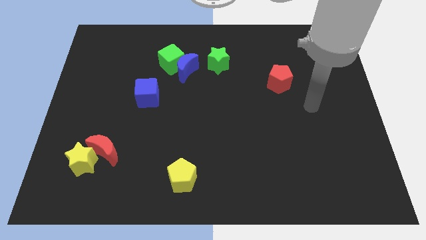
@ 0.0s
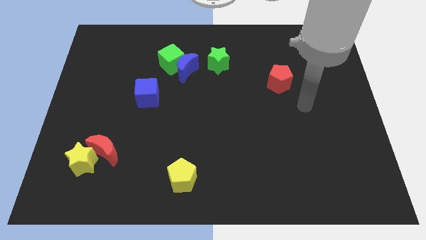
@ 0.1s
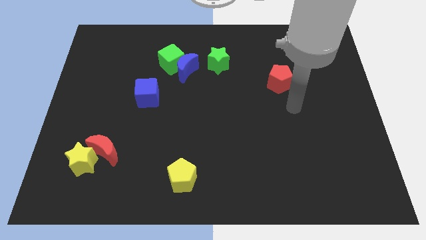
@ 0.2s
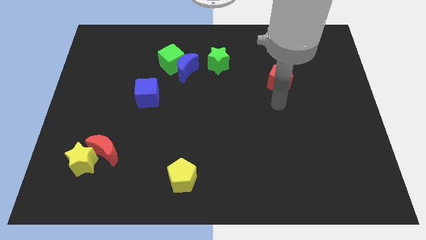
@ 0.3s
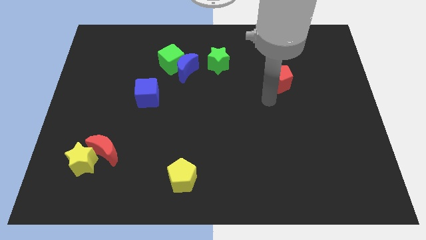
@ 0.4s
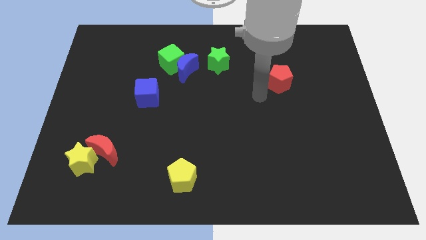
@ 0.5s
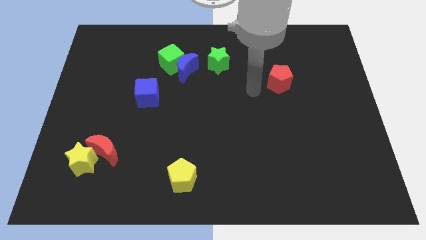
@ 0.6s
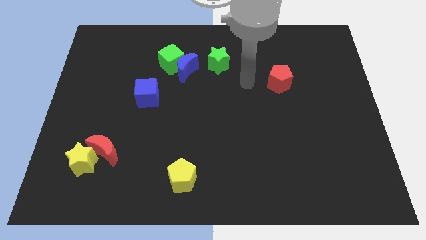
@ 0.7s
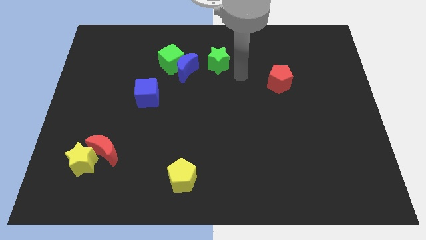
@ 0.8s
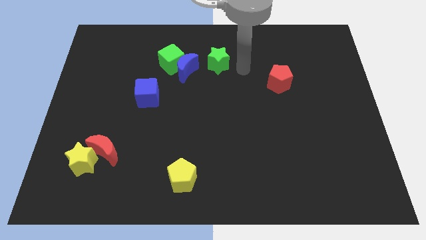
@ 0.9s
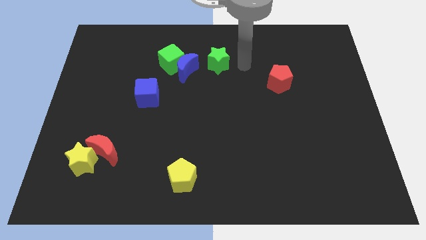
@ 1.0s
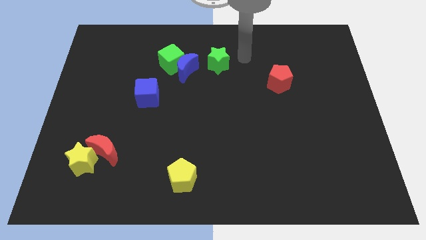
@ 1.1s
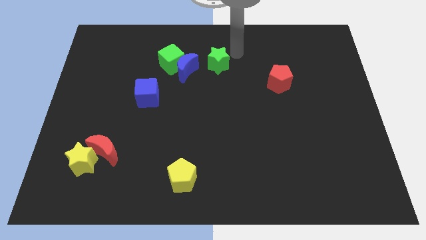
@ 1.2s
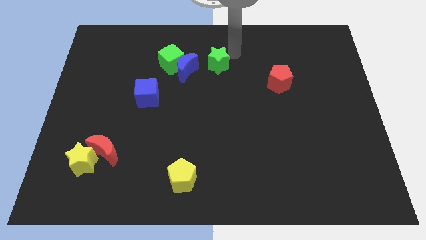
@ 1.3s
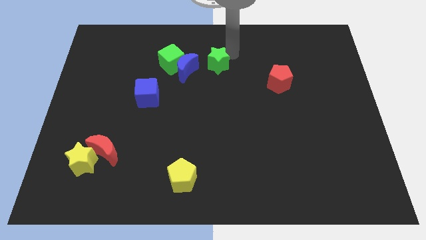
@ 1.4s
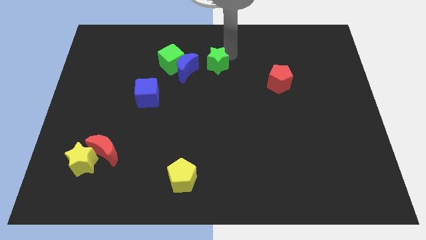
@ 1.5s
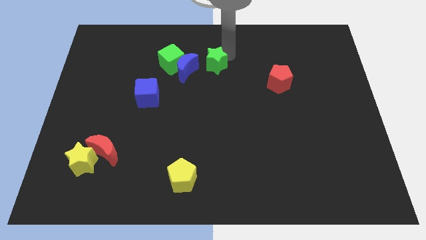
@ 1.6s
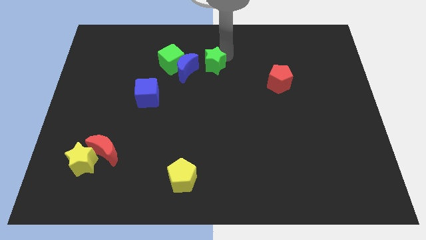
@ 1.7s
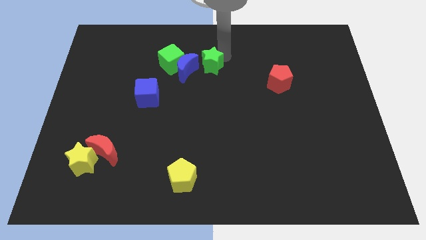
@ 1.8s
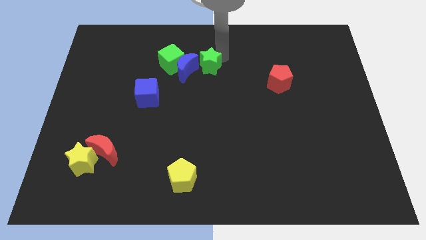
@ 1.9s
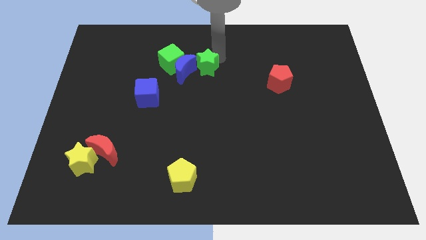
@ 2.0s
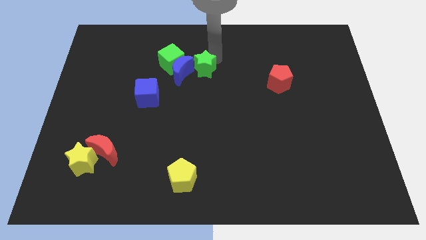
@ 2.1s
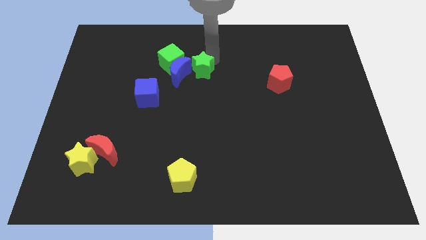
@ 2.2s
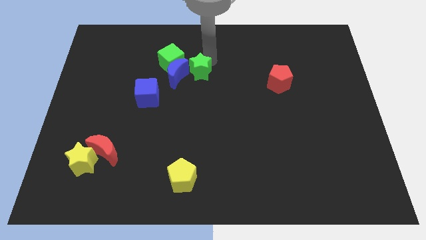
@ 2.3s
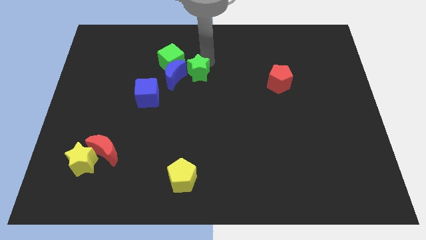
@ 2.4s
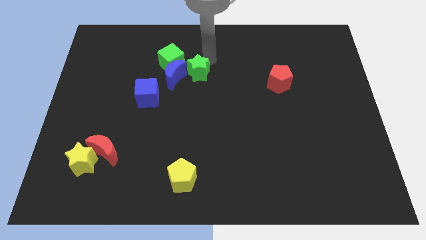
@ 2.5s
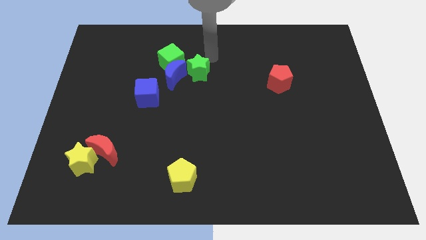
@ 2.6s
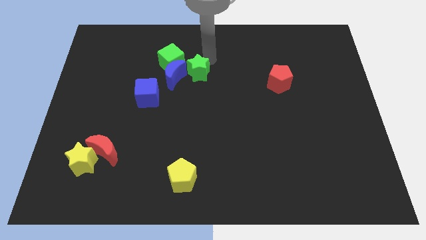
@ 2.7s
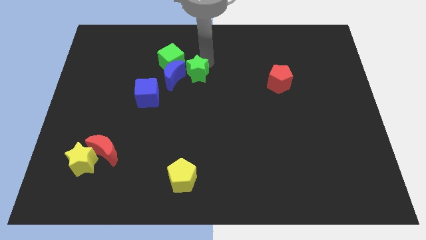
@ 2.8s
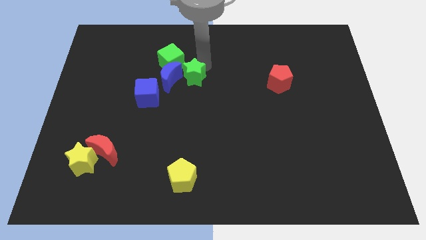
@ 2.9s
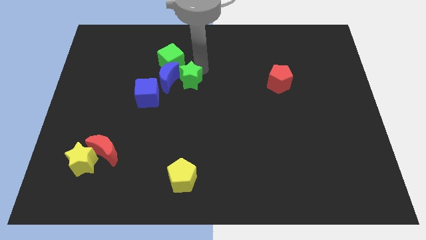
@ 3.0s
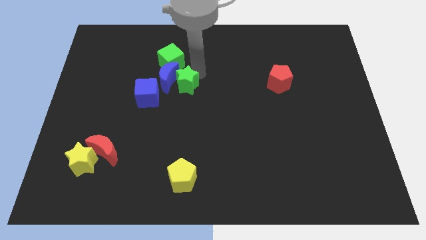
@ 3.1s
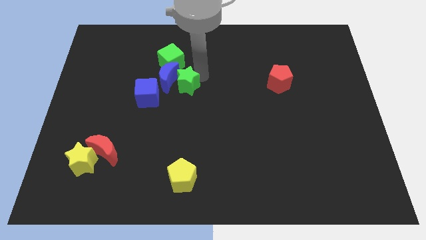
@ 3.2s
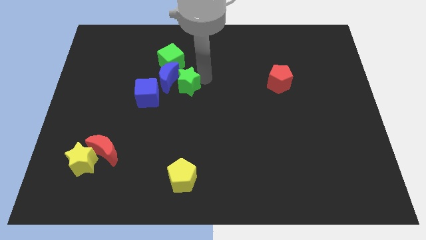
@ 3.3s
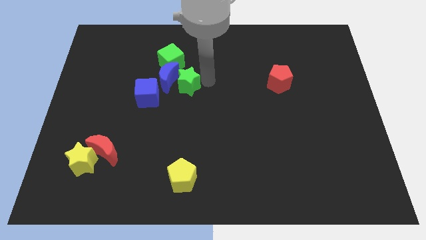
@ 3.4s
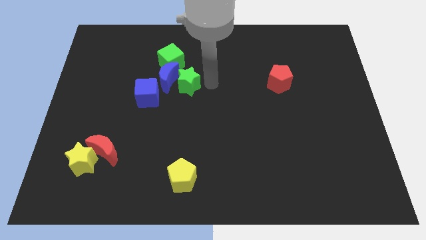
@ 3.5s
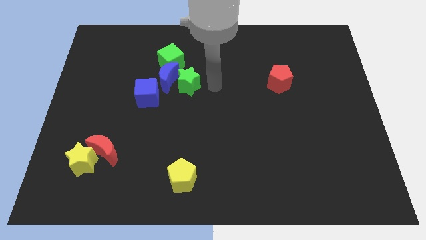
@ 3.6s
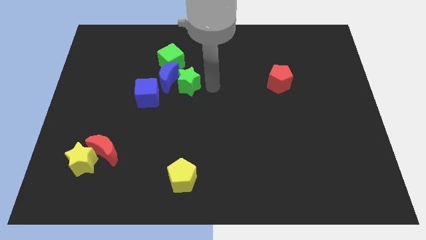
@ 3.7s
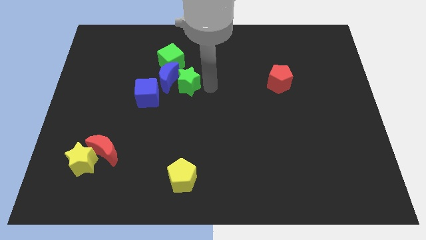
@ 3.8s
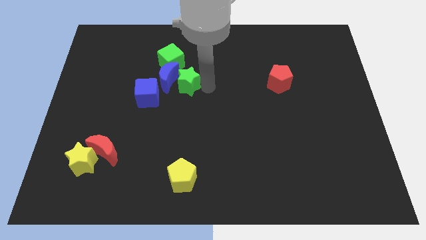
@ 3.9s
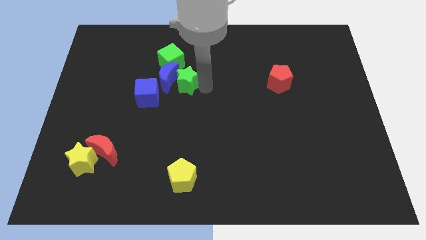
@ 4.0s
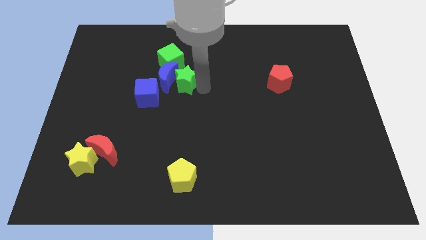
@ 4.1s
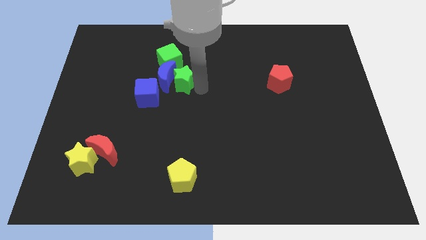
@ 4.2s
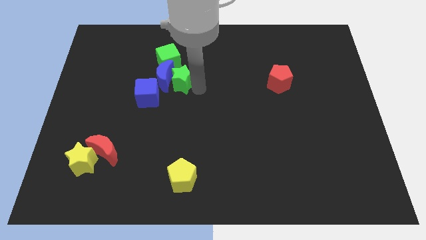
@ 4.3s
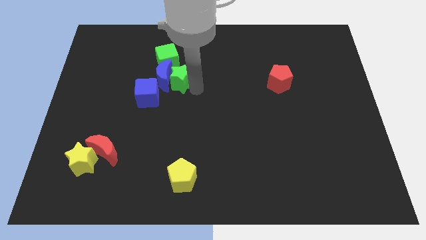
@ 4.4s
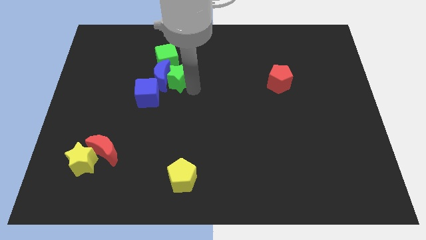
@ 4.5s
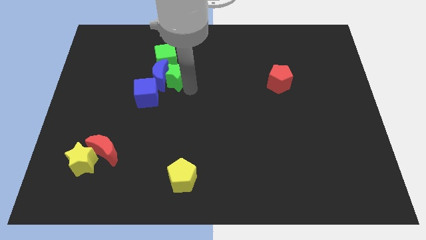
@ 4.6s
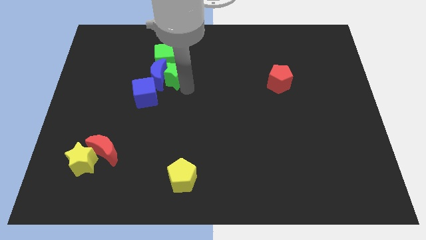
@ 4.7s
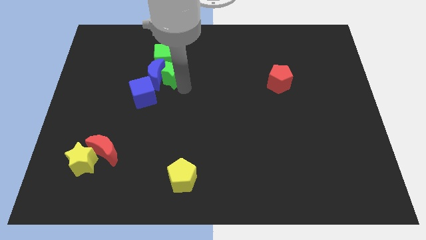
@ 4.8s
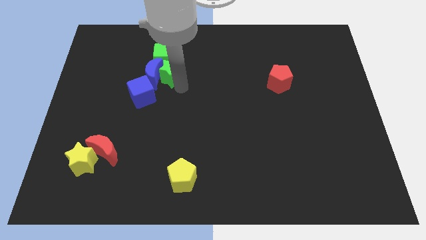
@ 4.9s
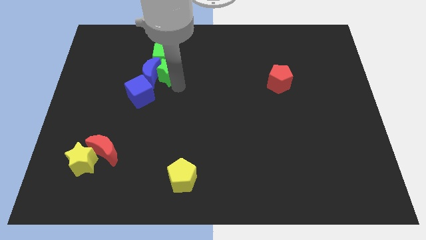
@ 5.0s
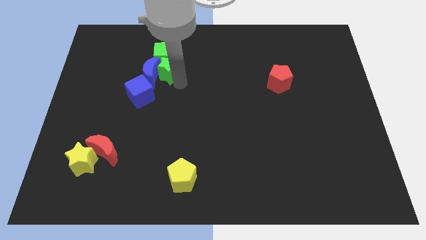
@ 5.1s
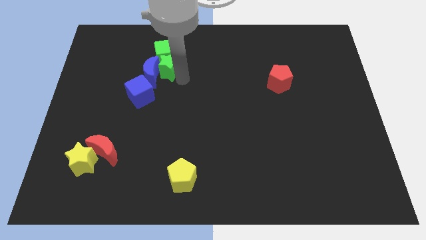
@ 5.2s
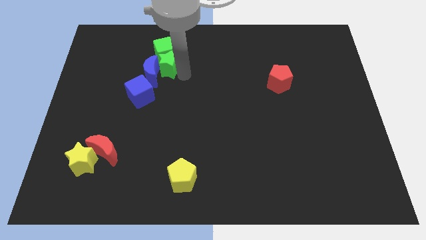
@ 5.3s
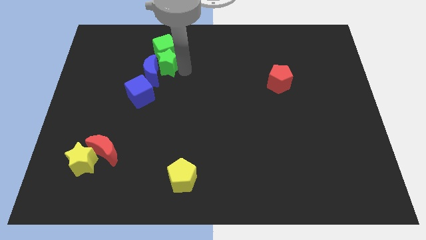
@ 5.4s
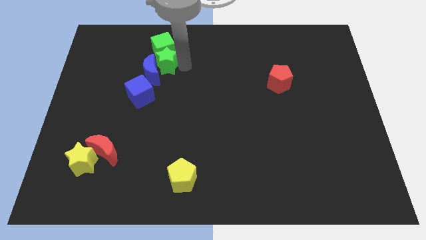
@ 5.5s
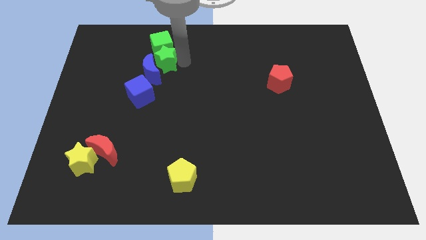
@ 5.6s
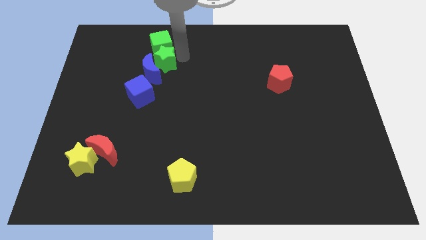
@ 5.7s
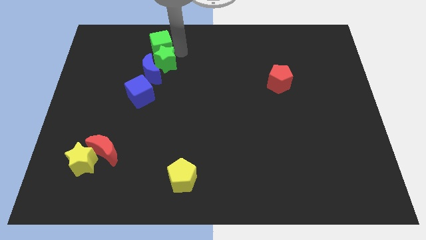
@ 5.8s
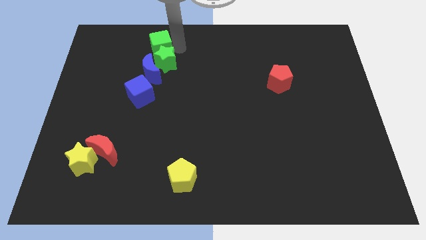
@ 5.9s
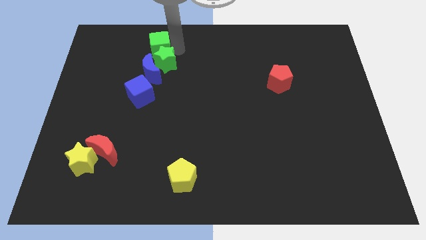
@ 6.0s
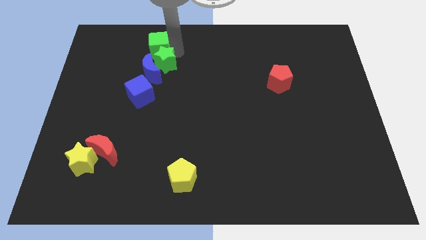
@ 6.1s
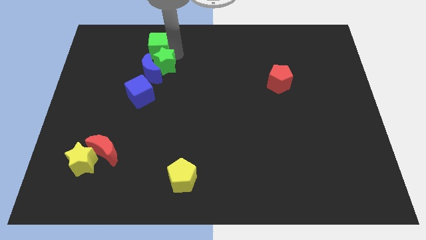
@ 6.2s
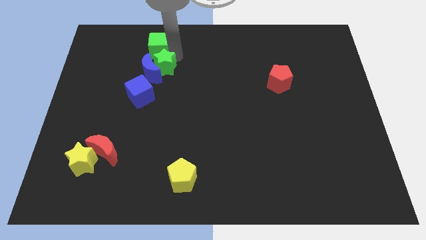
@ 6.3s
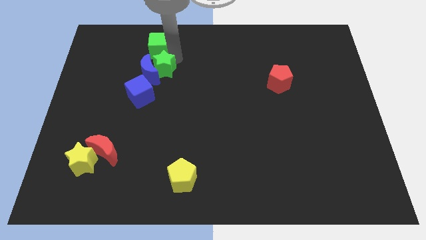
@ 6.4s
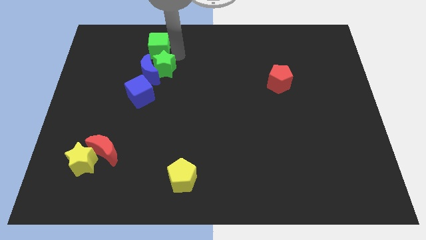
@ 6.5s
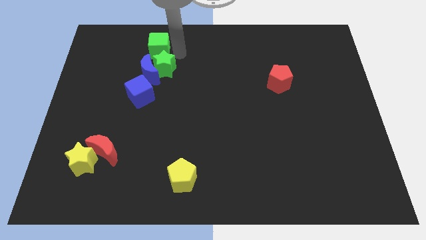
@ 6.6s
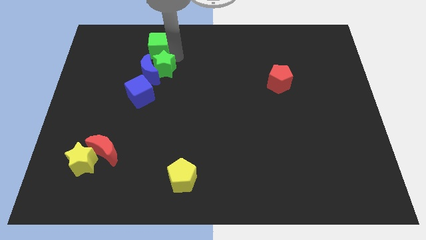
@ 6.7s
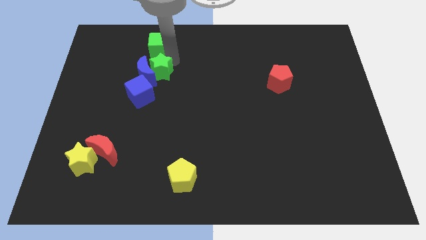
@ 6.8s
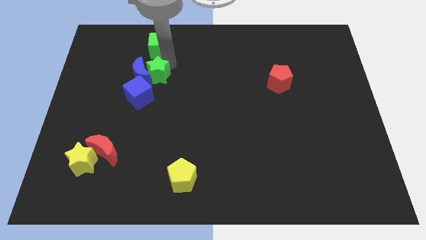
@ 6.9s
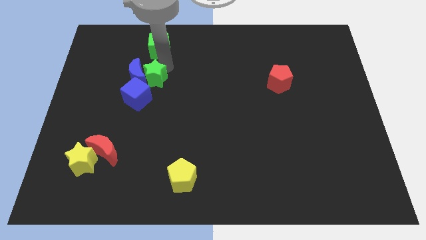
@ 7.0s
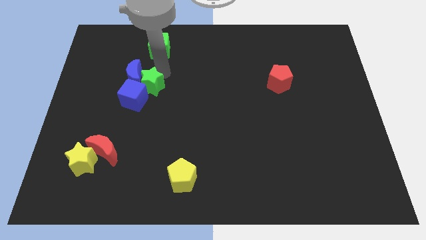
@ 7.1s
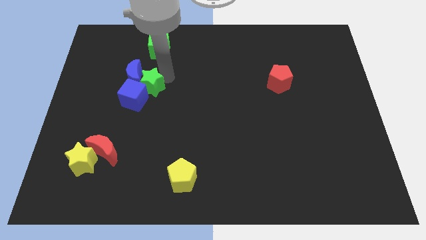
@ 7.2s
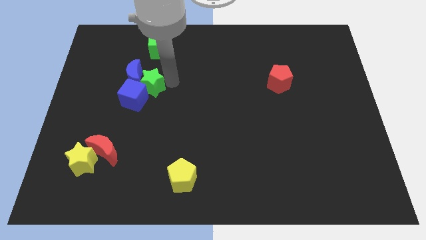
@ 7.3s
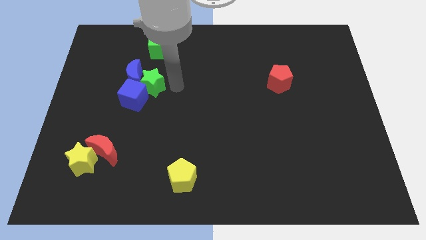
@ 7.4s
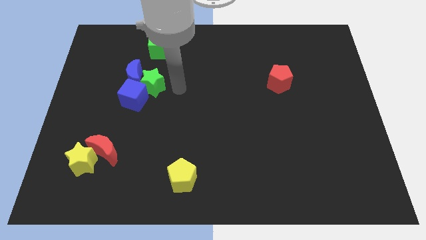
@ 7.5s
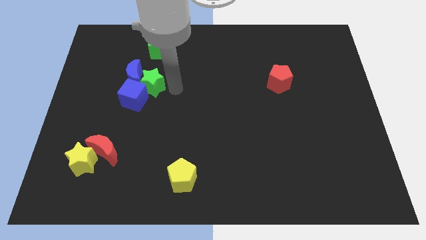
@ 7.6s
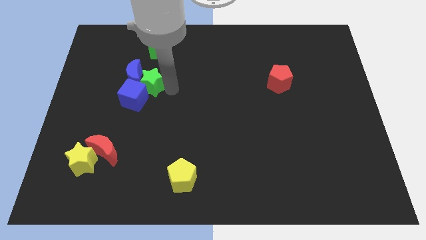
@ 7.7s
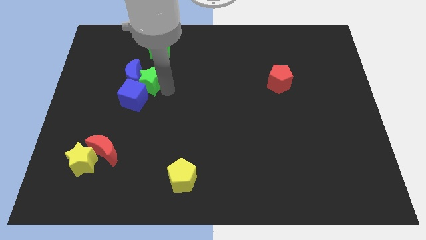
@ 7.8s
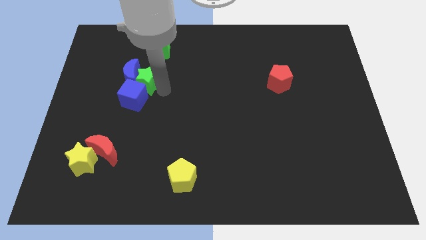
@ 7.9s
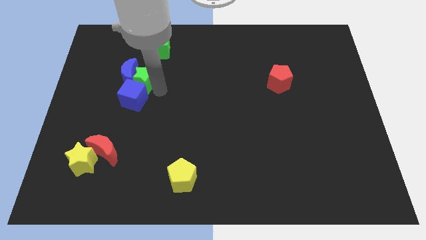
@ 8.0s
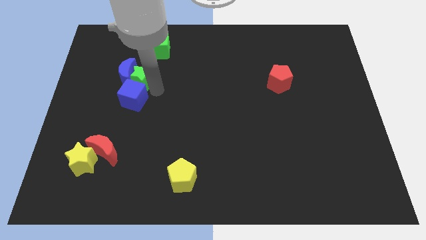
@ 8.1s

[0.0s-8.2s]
slide the green star to the top left of the blue cube
